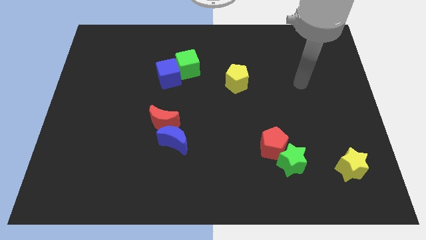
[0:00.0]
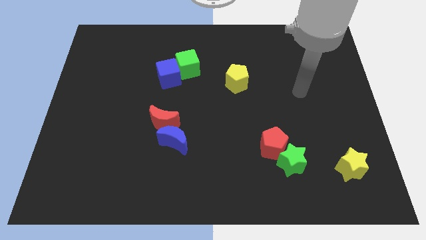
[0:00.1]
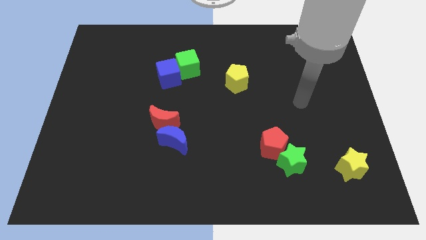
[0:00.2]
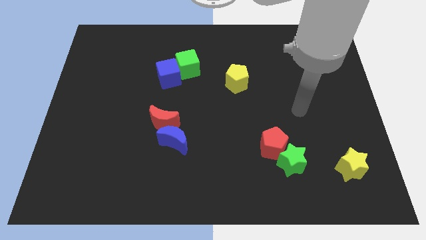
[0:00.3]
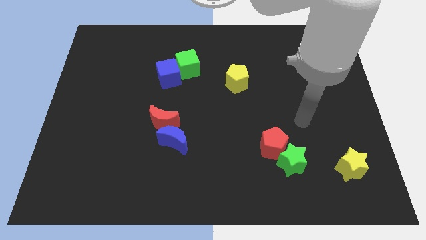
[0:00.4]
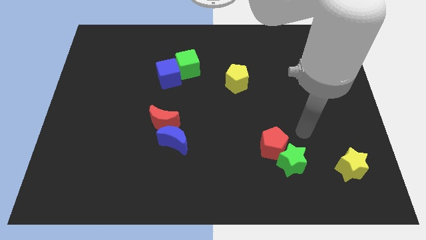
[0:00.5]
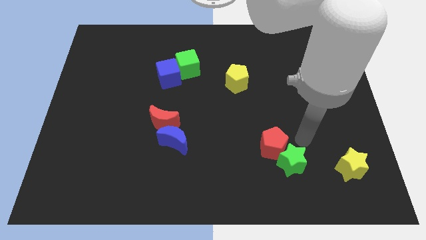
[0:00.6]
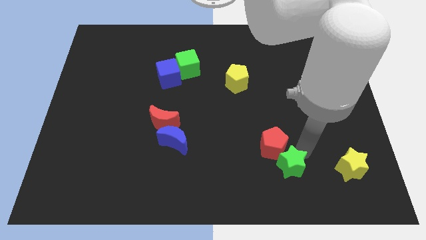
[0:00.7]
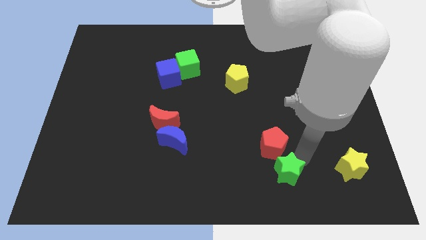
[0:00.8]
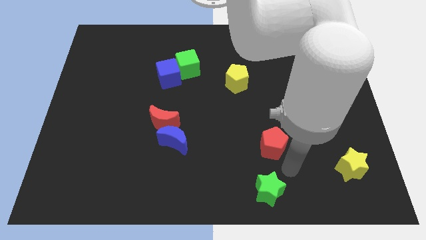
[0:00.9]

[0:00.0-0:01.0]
separate the red pentagon from the green star

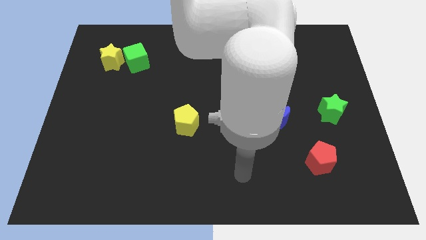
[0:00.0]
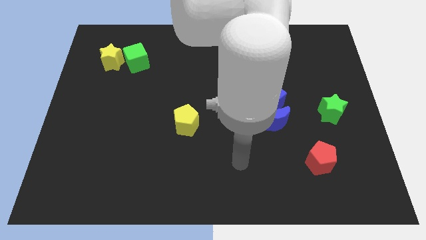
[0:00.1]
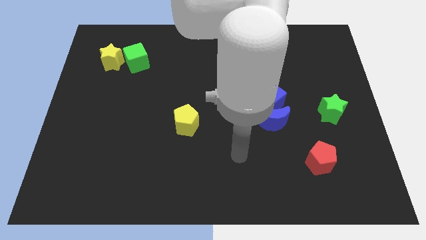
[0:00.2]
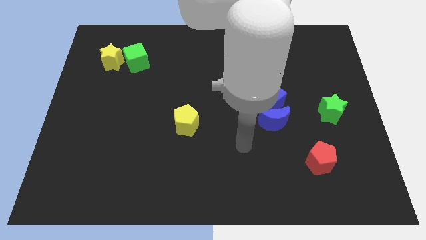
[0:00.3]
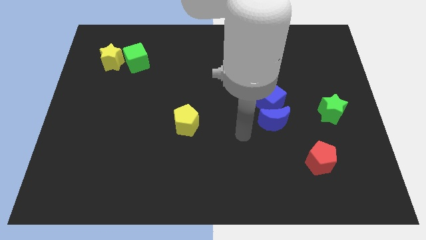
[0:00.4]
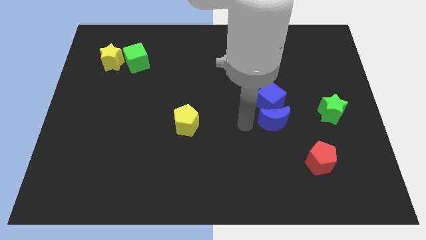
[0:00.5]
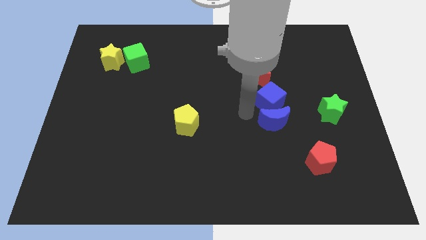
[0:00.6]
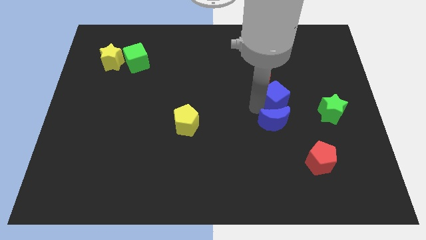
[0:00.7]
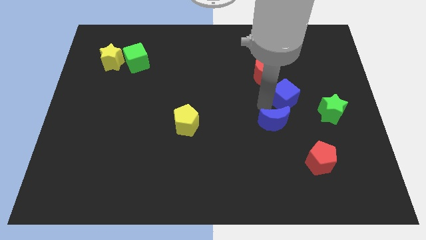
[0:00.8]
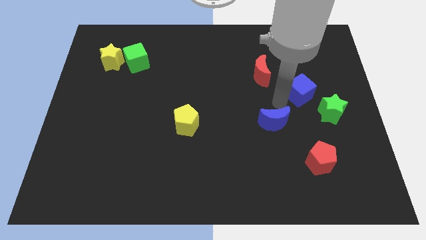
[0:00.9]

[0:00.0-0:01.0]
move the blue moon away from the blue cube

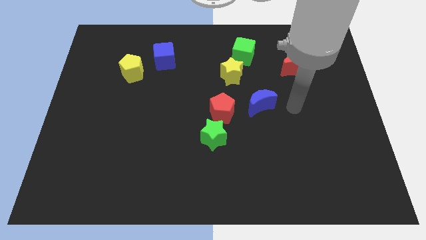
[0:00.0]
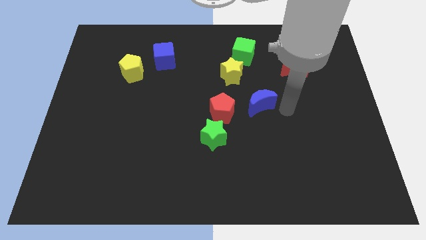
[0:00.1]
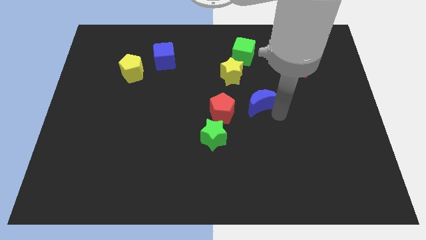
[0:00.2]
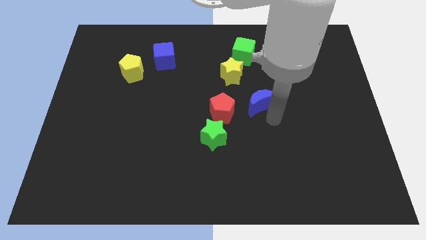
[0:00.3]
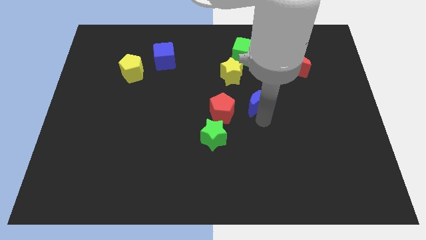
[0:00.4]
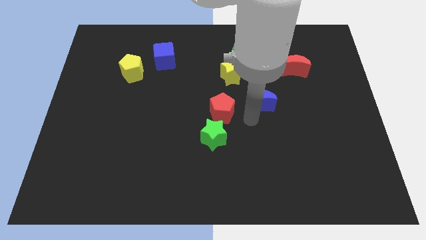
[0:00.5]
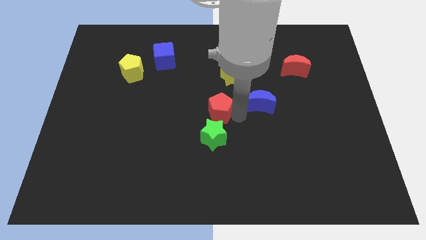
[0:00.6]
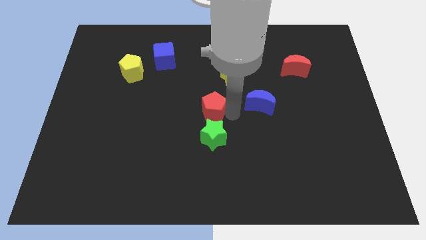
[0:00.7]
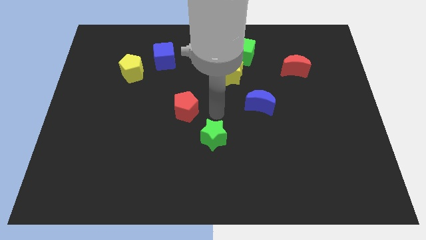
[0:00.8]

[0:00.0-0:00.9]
pull the green star apart from the red pentagon

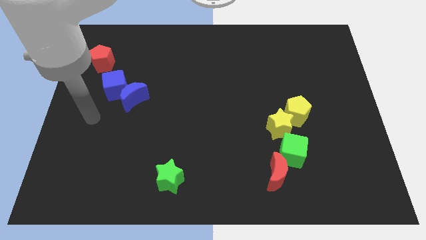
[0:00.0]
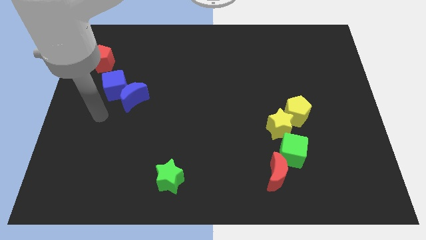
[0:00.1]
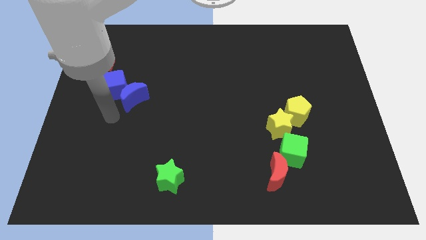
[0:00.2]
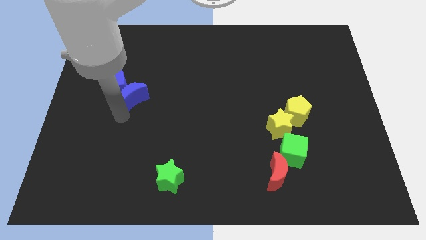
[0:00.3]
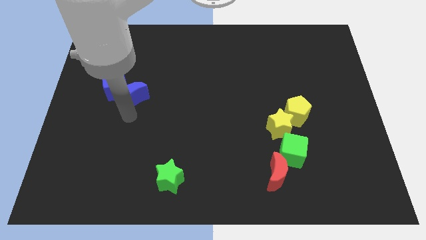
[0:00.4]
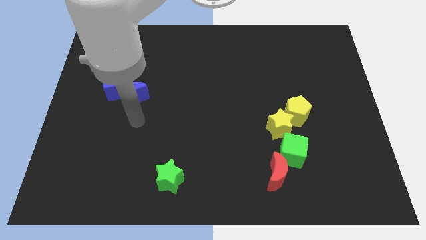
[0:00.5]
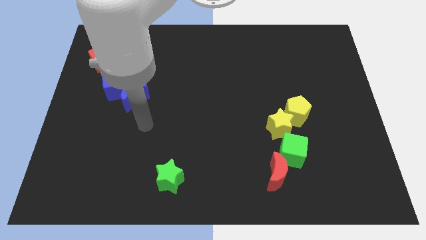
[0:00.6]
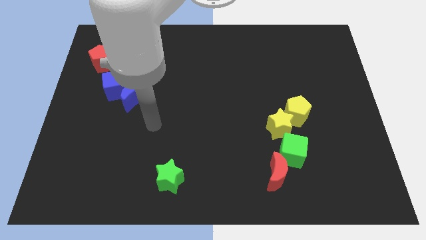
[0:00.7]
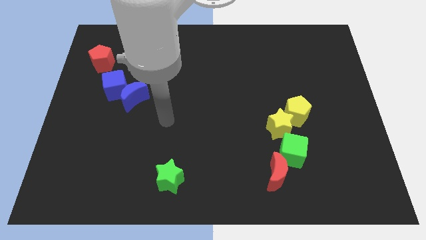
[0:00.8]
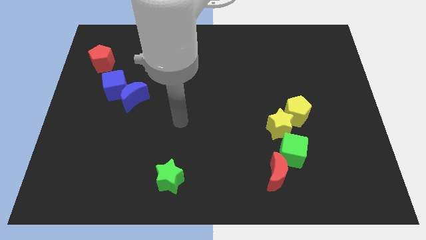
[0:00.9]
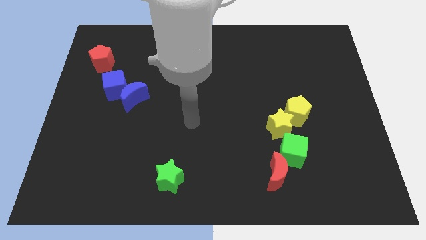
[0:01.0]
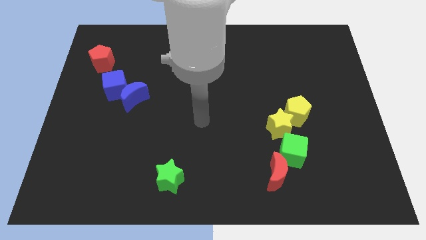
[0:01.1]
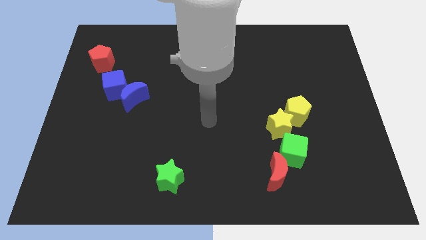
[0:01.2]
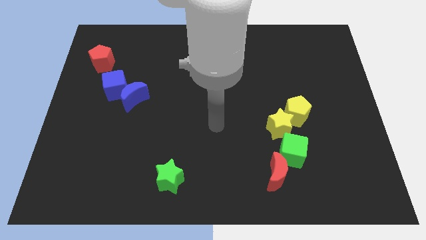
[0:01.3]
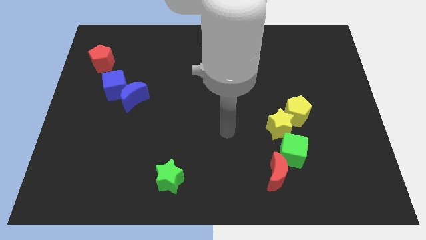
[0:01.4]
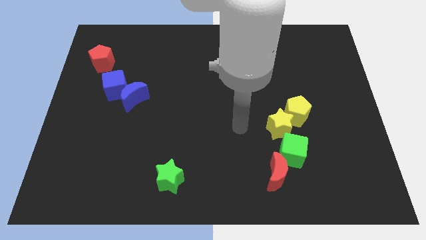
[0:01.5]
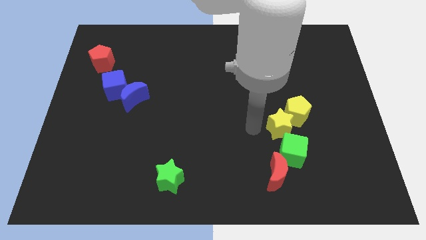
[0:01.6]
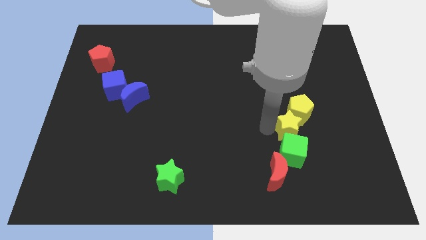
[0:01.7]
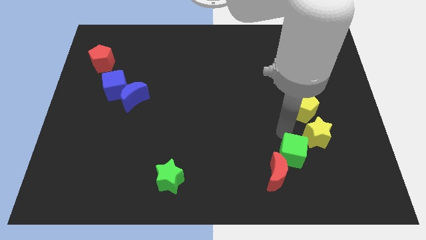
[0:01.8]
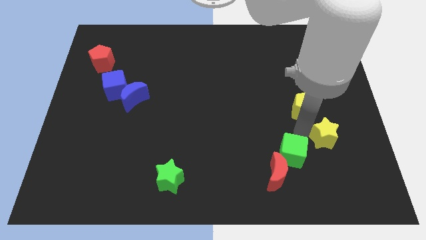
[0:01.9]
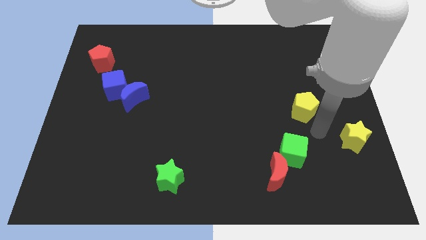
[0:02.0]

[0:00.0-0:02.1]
pull the yellow pentagon apart from the yellow star

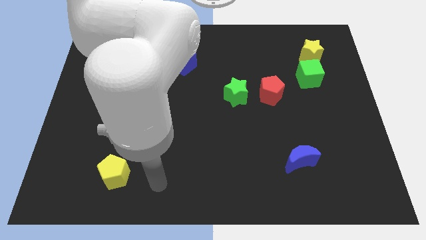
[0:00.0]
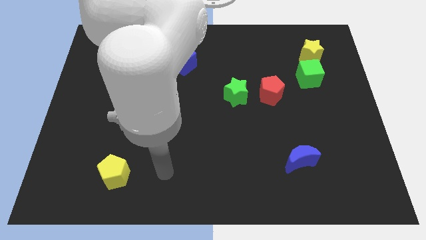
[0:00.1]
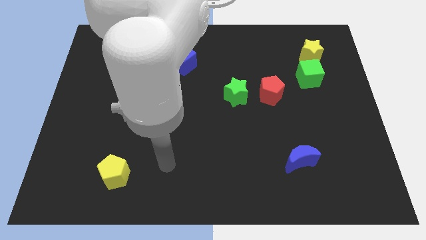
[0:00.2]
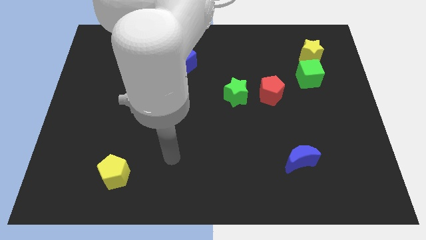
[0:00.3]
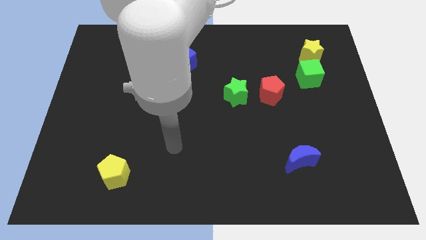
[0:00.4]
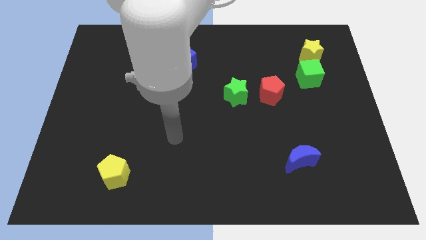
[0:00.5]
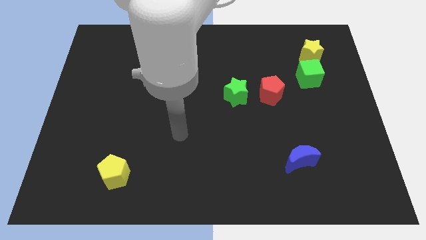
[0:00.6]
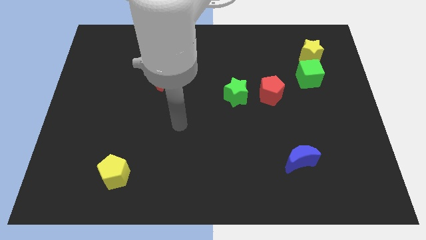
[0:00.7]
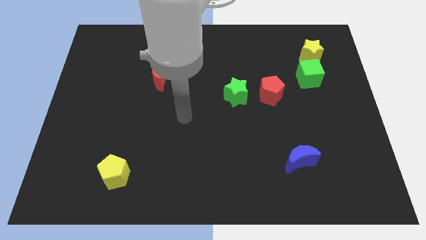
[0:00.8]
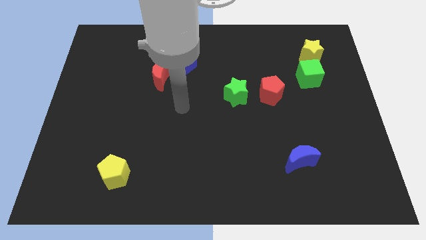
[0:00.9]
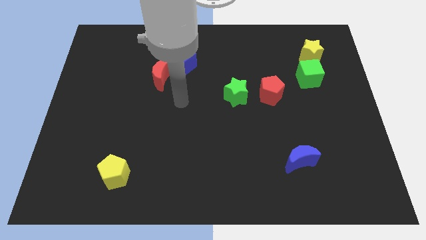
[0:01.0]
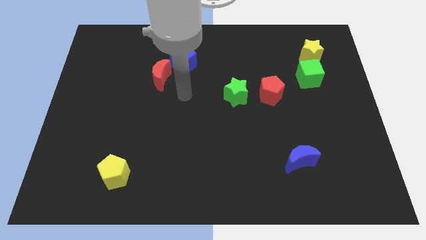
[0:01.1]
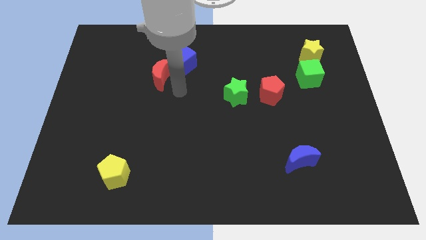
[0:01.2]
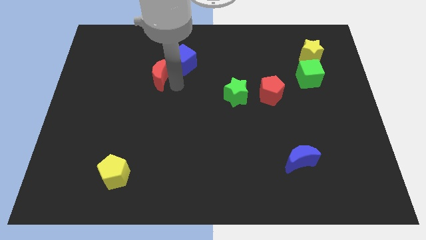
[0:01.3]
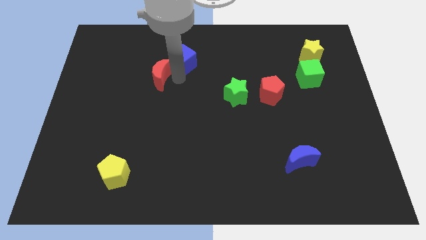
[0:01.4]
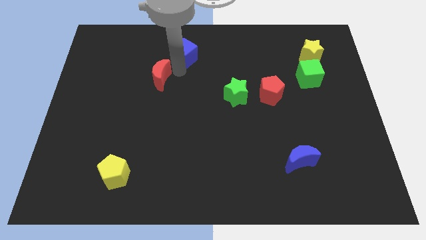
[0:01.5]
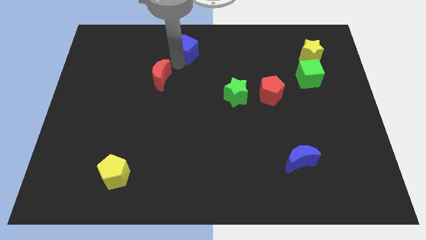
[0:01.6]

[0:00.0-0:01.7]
move the red moon away from the blue cube

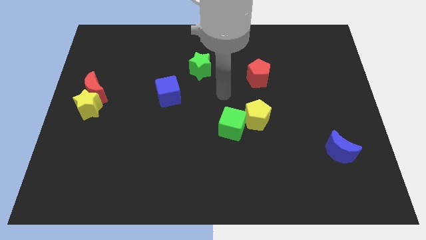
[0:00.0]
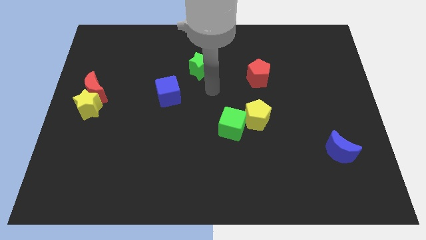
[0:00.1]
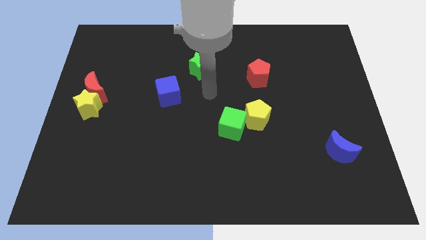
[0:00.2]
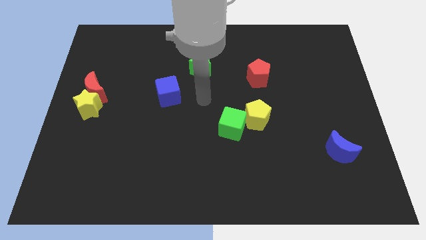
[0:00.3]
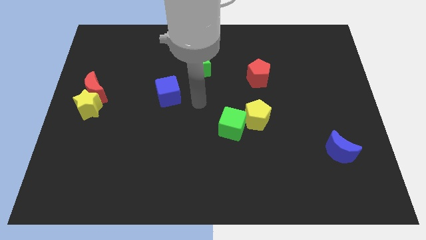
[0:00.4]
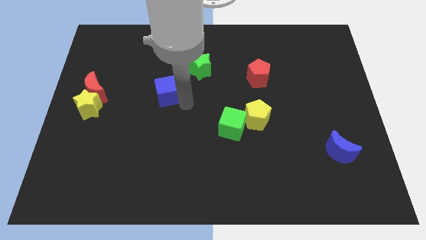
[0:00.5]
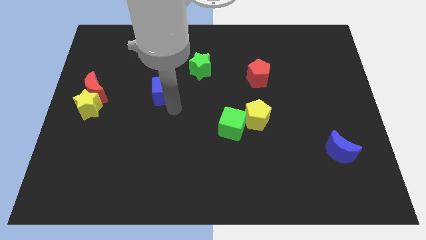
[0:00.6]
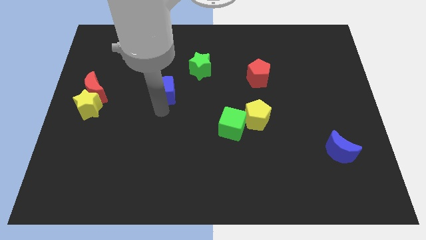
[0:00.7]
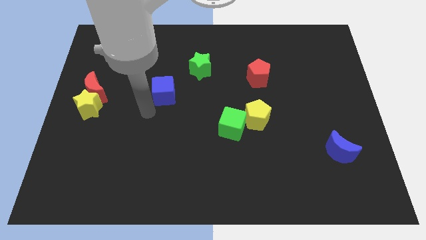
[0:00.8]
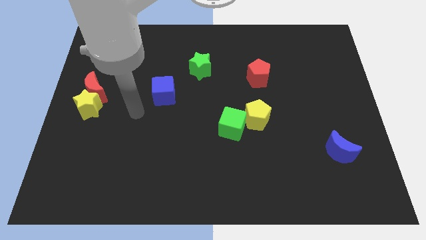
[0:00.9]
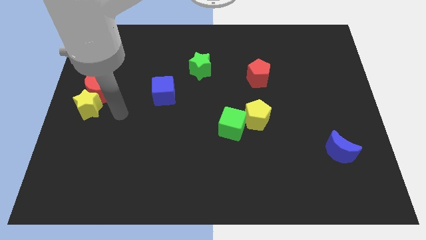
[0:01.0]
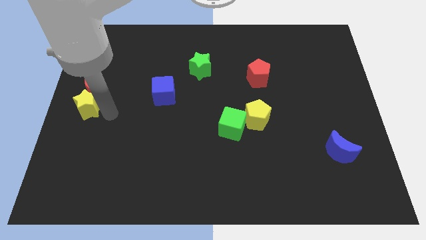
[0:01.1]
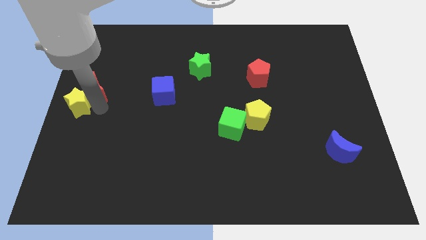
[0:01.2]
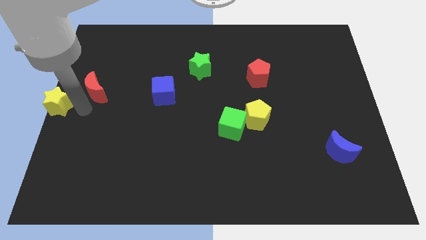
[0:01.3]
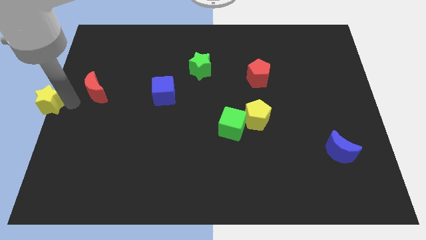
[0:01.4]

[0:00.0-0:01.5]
separate the red moon from the yellow star

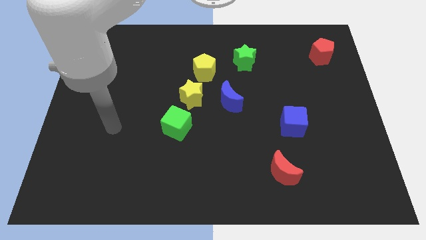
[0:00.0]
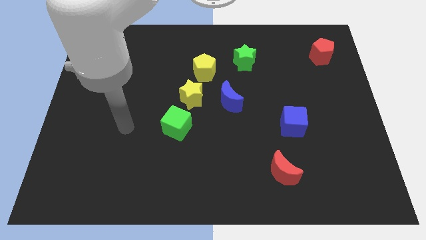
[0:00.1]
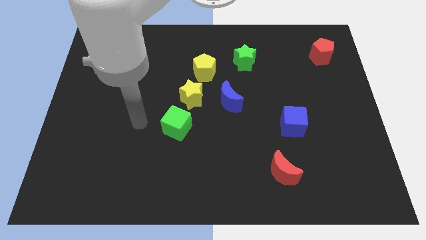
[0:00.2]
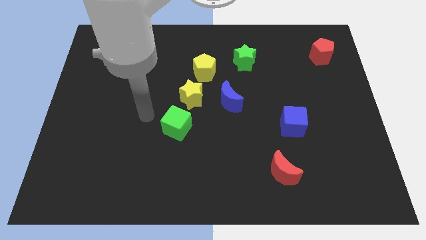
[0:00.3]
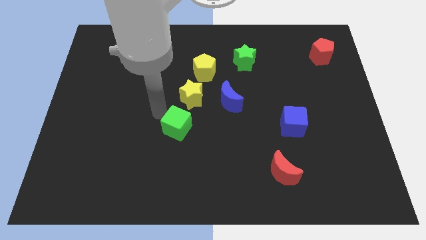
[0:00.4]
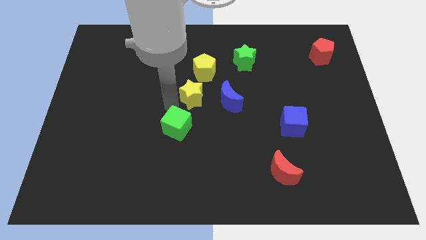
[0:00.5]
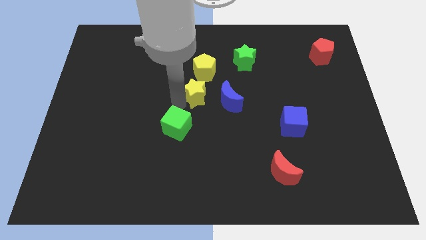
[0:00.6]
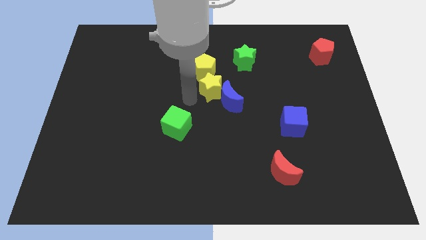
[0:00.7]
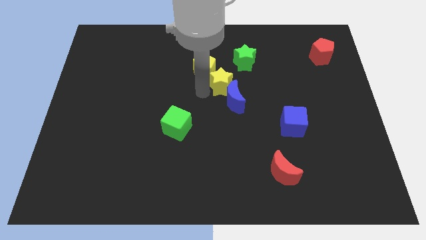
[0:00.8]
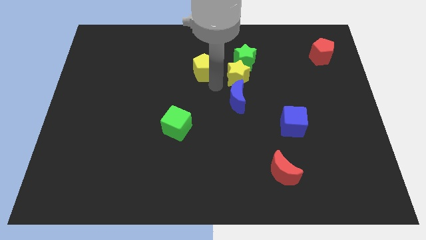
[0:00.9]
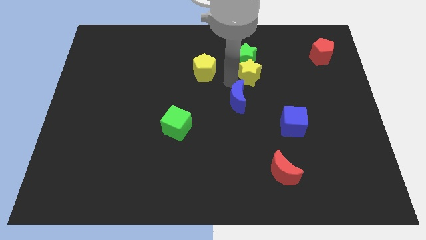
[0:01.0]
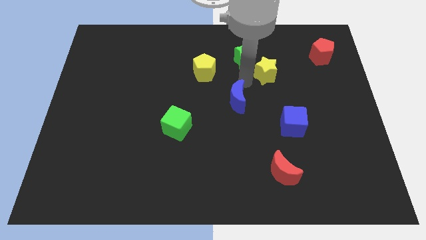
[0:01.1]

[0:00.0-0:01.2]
separate the blue moon from the yellow star
